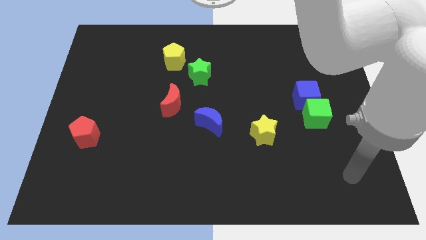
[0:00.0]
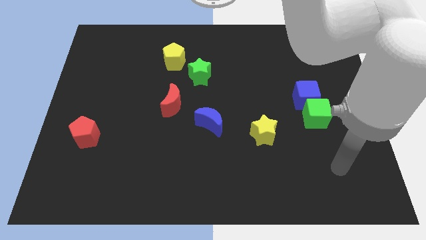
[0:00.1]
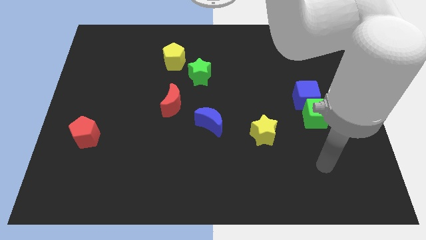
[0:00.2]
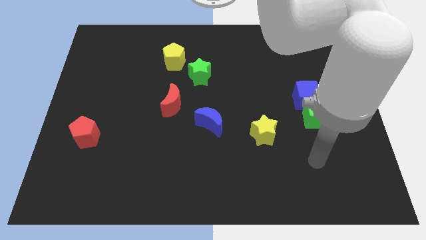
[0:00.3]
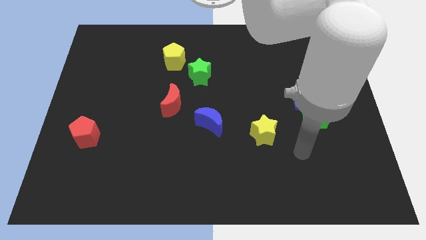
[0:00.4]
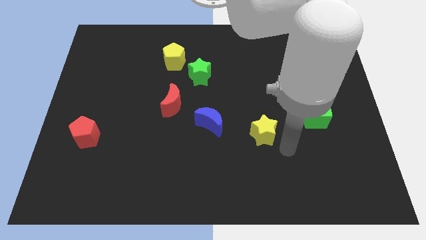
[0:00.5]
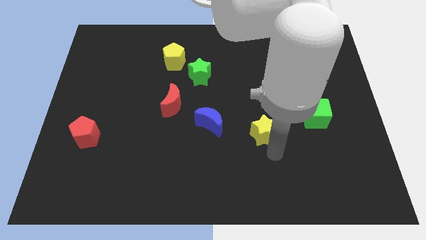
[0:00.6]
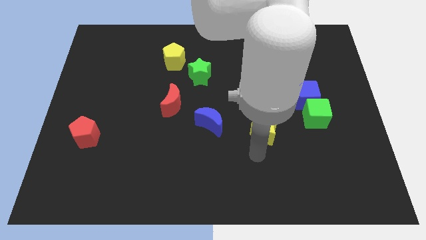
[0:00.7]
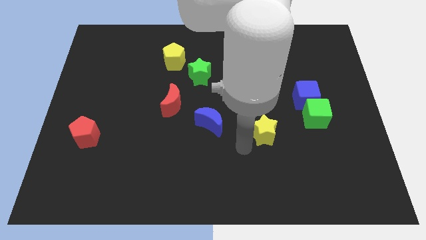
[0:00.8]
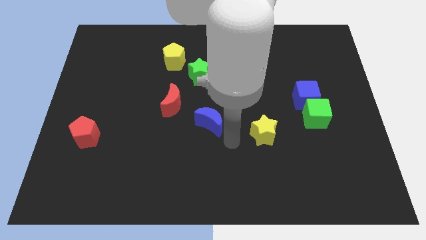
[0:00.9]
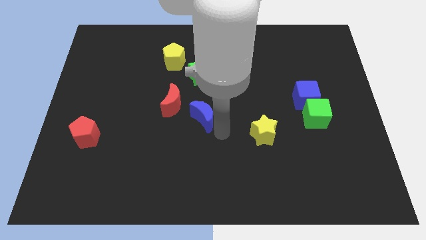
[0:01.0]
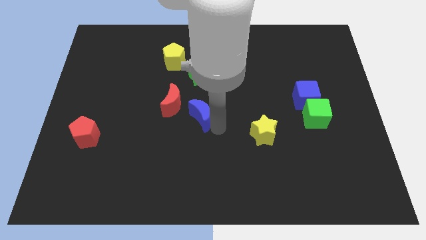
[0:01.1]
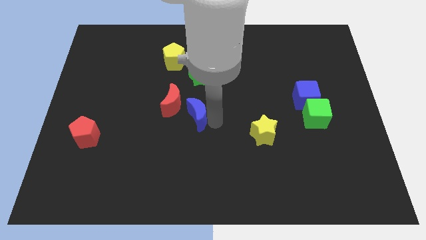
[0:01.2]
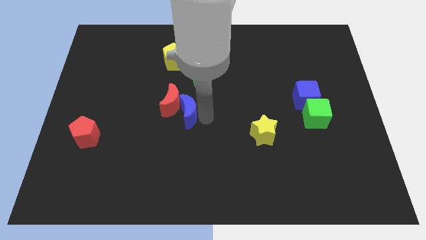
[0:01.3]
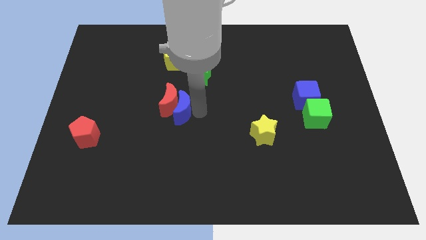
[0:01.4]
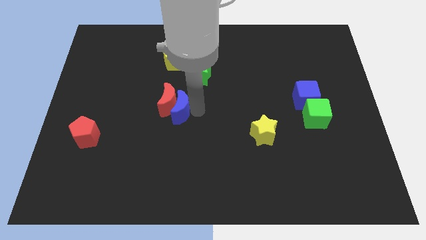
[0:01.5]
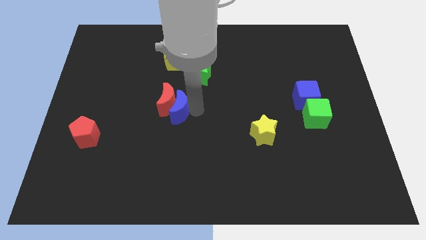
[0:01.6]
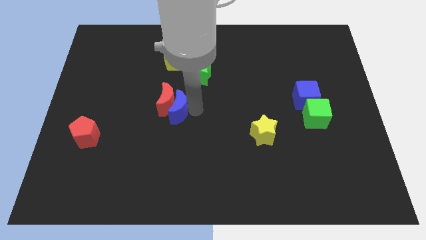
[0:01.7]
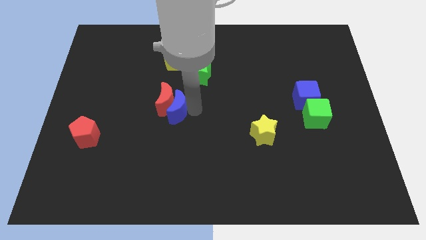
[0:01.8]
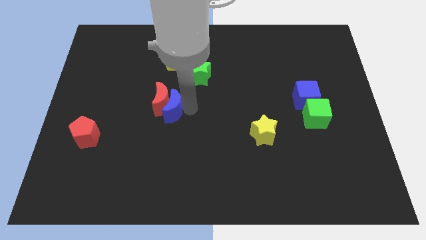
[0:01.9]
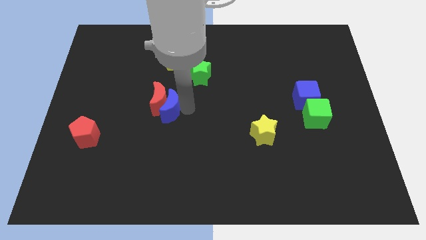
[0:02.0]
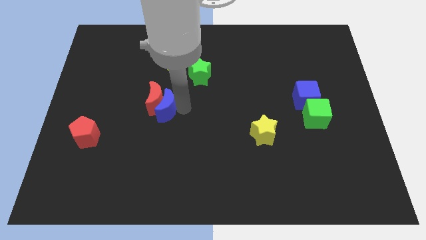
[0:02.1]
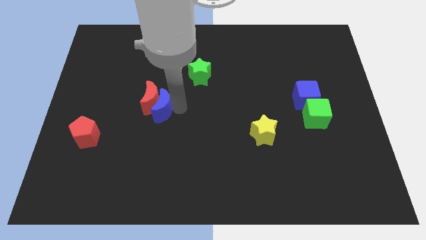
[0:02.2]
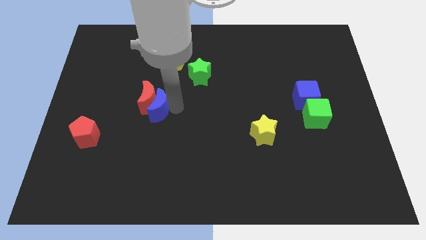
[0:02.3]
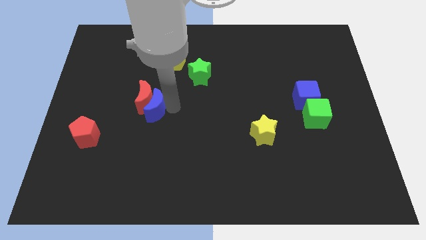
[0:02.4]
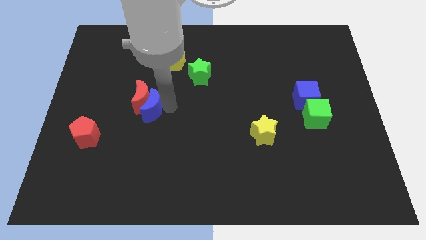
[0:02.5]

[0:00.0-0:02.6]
slightly slide the red moon left

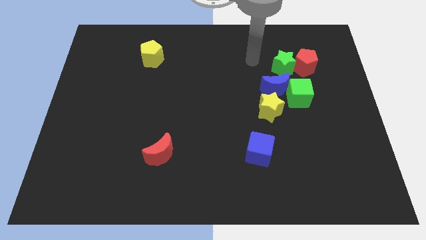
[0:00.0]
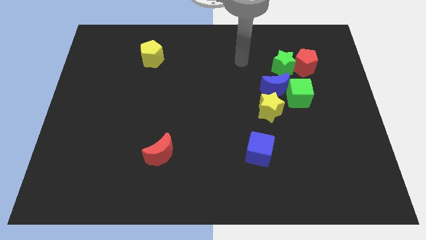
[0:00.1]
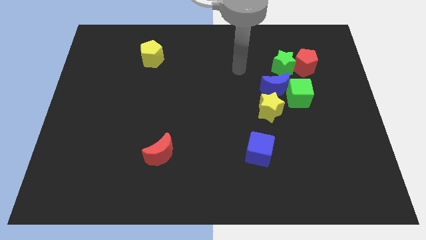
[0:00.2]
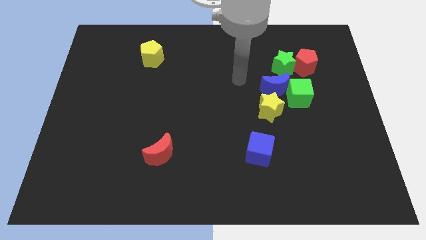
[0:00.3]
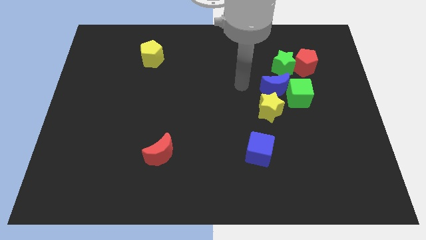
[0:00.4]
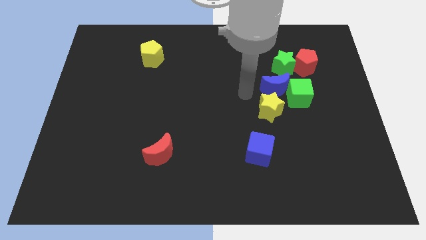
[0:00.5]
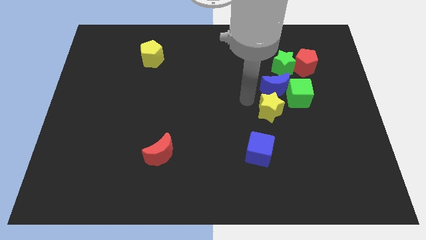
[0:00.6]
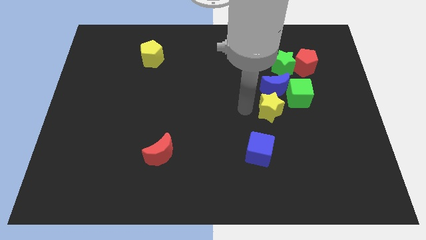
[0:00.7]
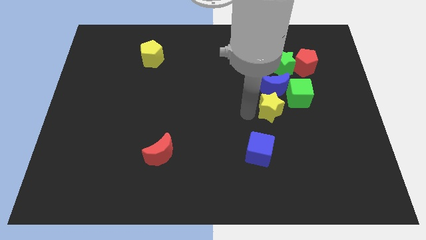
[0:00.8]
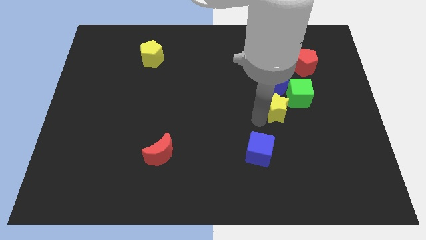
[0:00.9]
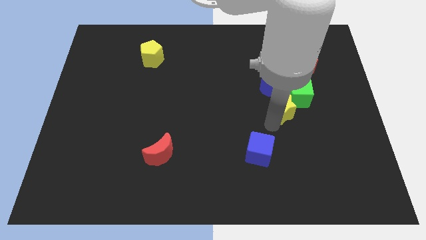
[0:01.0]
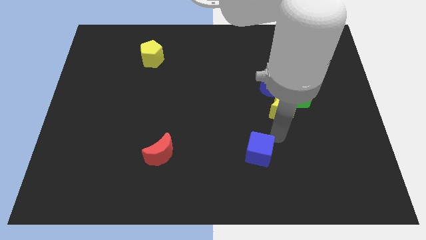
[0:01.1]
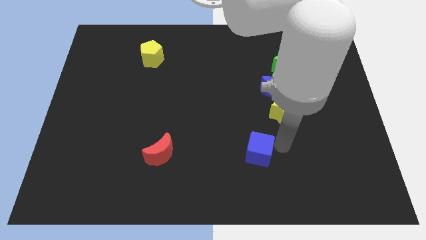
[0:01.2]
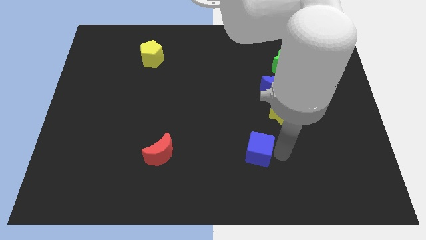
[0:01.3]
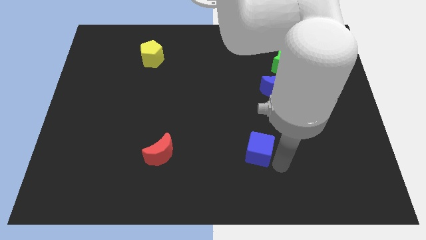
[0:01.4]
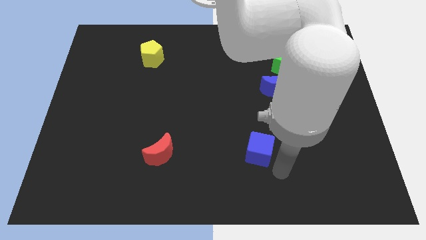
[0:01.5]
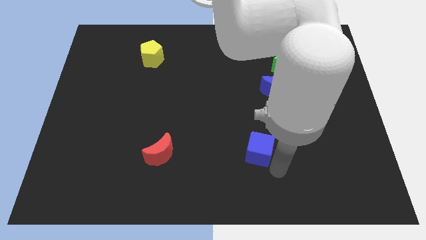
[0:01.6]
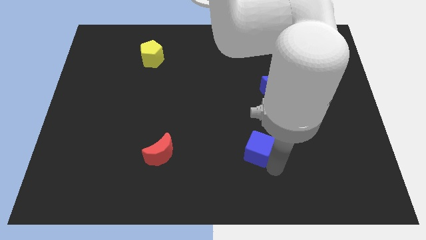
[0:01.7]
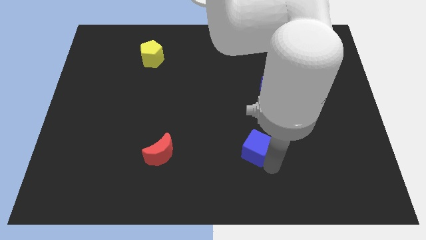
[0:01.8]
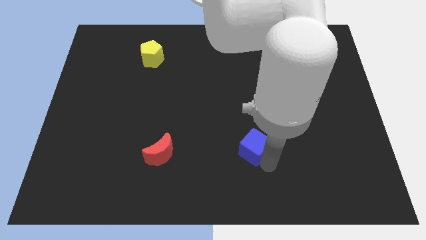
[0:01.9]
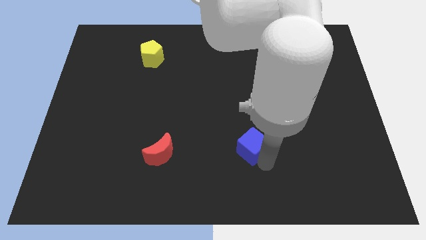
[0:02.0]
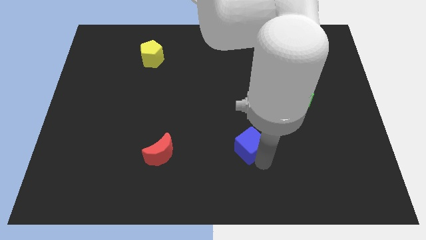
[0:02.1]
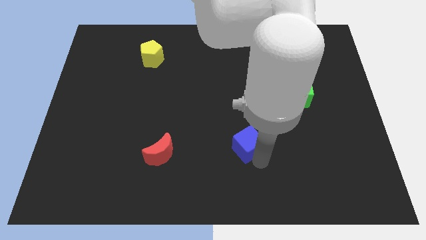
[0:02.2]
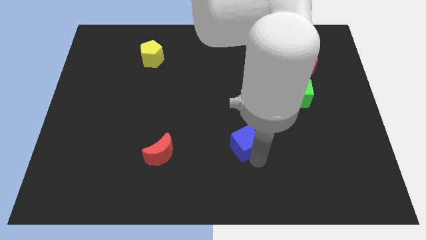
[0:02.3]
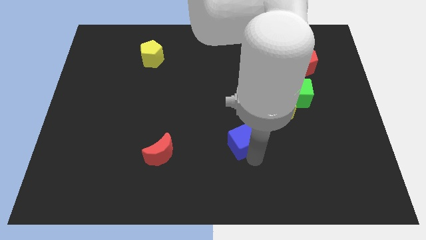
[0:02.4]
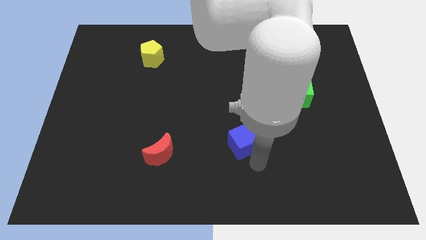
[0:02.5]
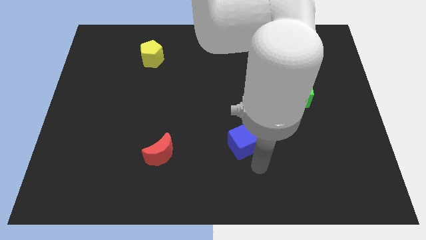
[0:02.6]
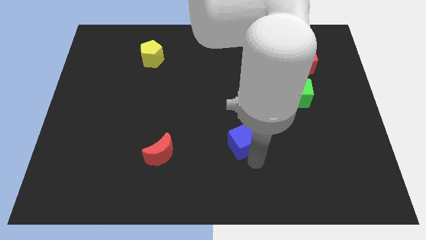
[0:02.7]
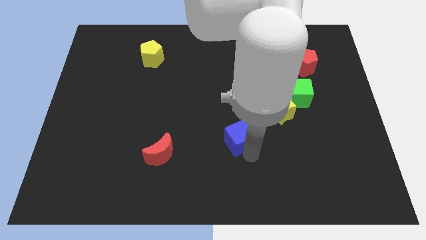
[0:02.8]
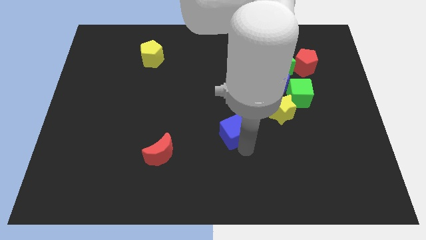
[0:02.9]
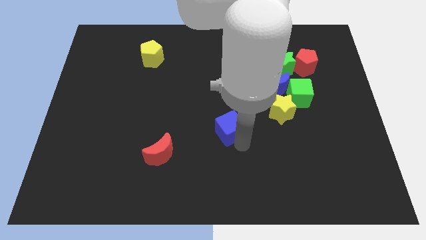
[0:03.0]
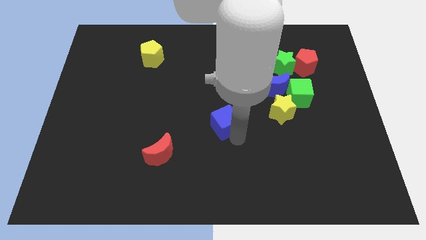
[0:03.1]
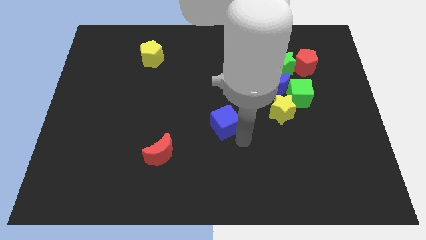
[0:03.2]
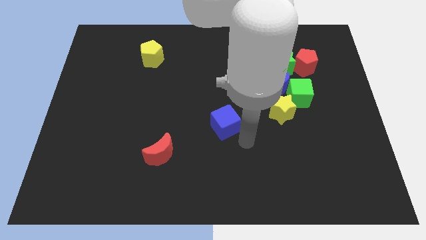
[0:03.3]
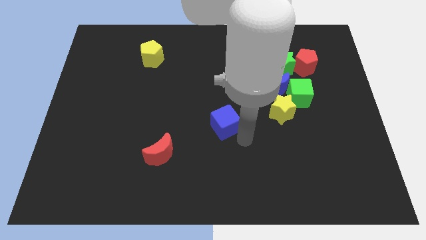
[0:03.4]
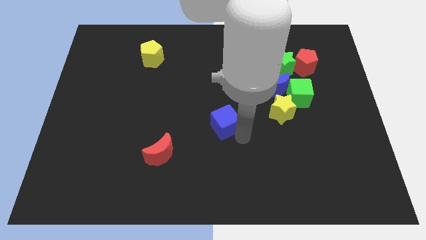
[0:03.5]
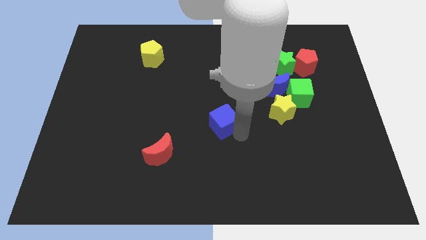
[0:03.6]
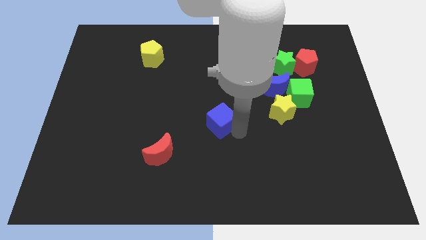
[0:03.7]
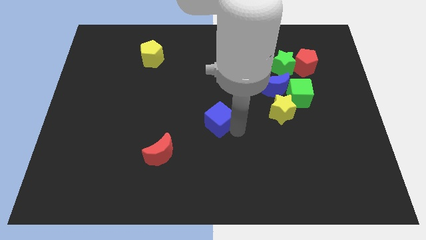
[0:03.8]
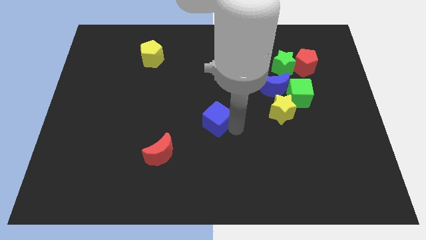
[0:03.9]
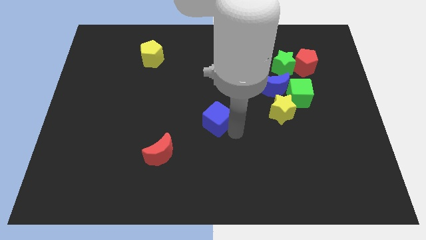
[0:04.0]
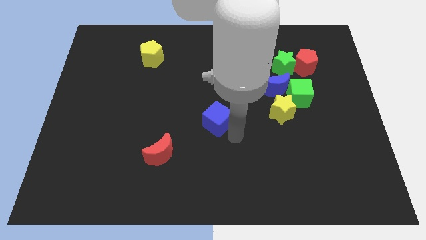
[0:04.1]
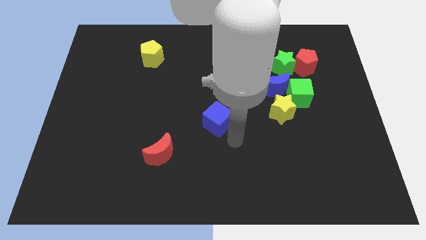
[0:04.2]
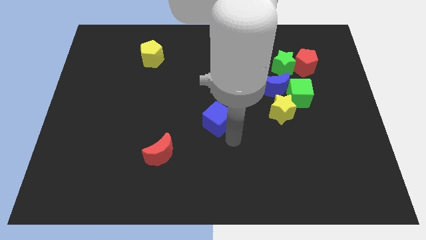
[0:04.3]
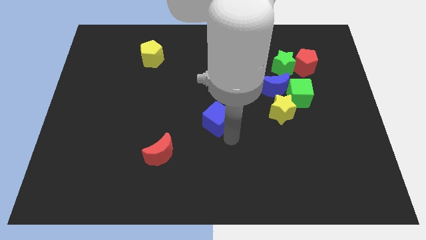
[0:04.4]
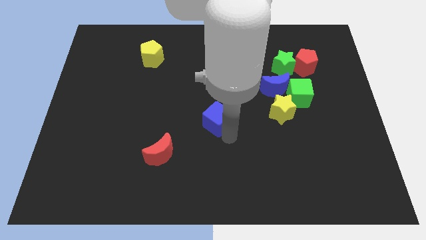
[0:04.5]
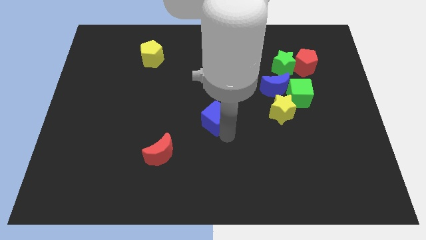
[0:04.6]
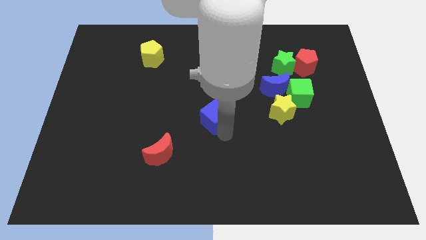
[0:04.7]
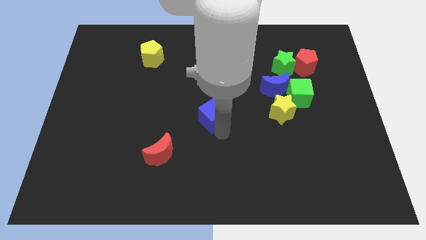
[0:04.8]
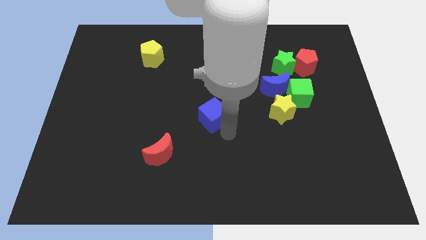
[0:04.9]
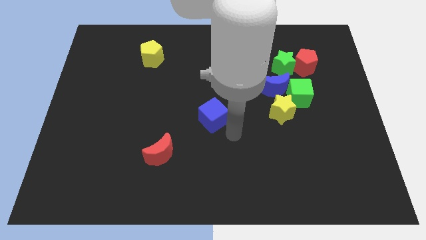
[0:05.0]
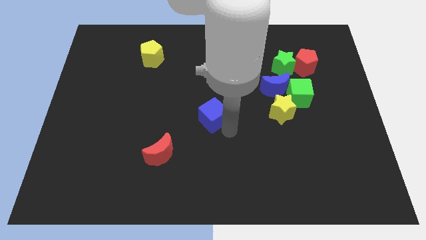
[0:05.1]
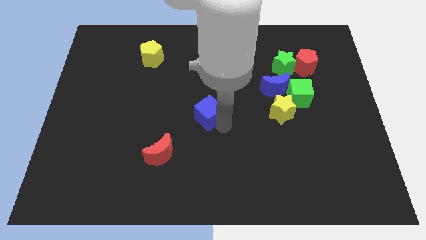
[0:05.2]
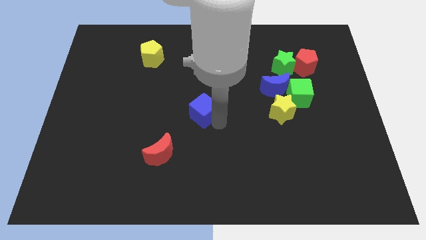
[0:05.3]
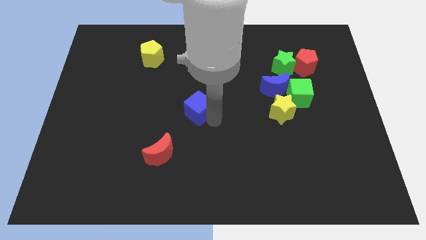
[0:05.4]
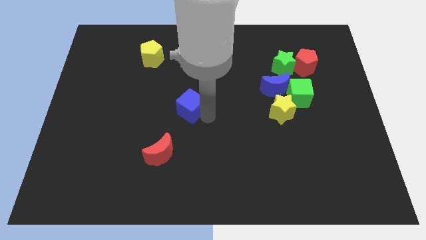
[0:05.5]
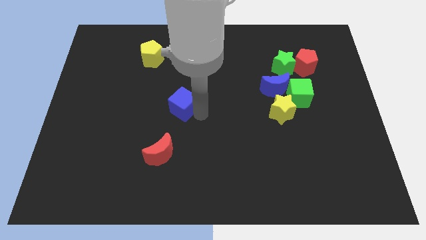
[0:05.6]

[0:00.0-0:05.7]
push the blue cube diagonally upwards and left
